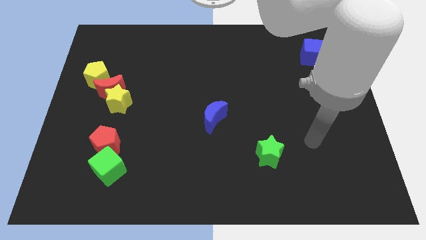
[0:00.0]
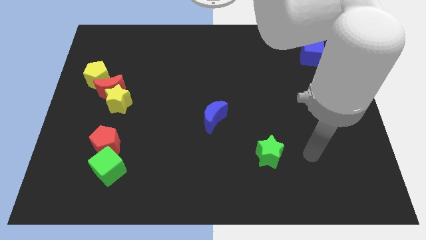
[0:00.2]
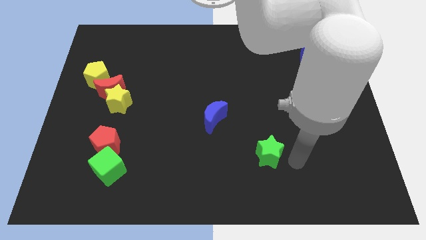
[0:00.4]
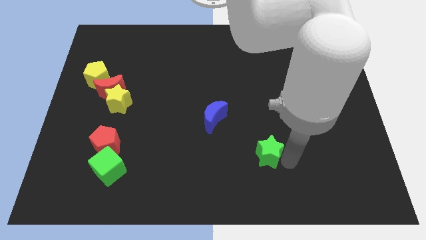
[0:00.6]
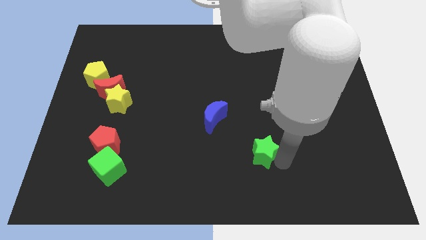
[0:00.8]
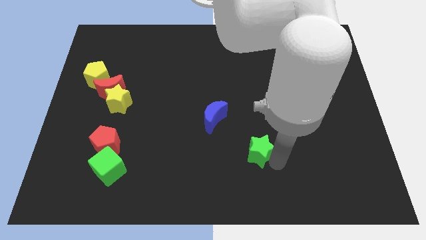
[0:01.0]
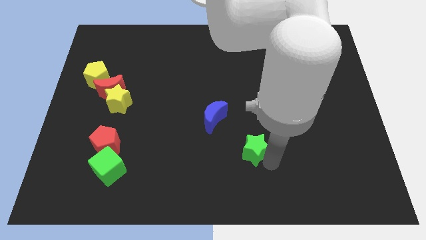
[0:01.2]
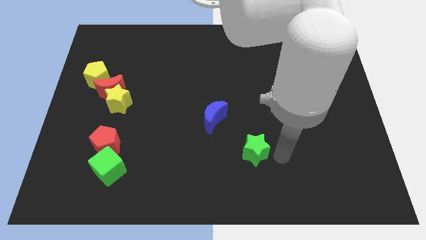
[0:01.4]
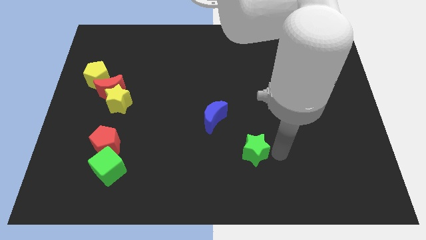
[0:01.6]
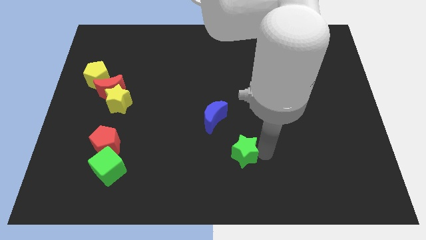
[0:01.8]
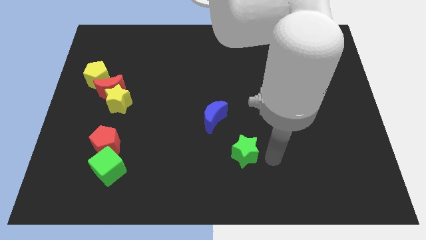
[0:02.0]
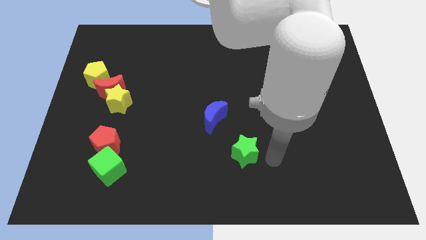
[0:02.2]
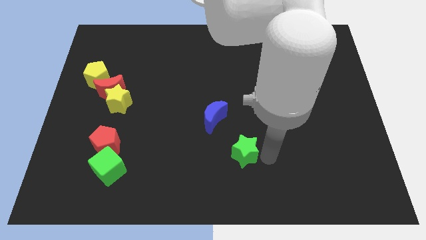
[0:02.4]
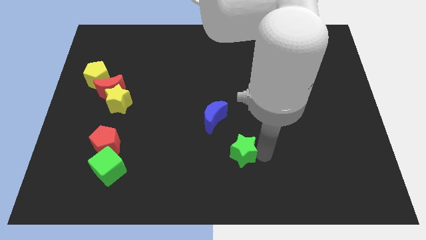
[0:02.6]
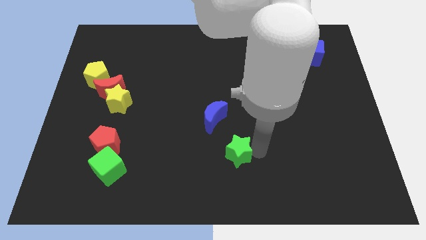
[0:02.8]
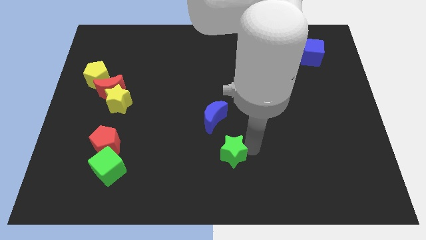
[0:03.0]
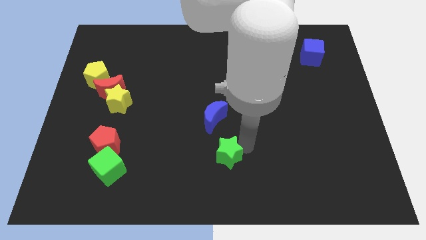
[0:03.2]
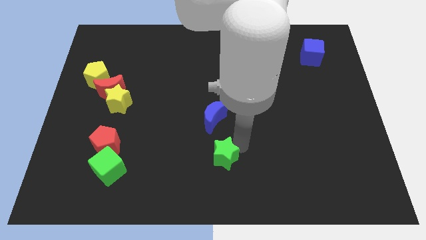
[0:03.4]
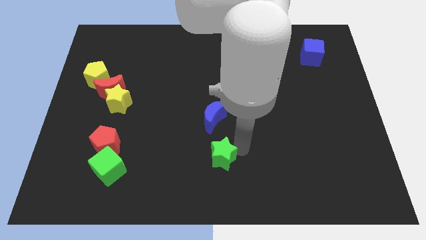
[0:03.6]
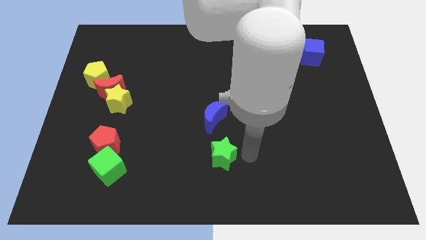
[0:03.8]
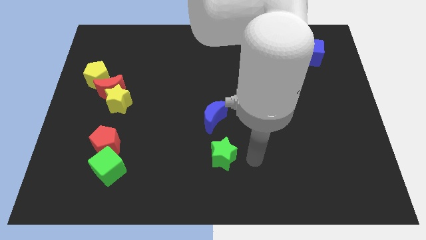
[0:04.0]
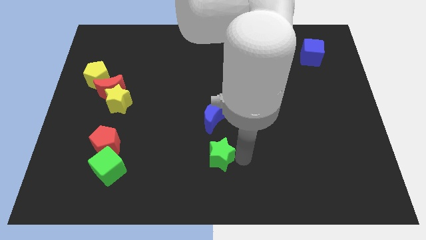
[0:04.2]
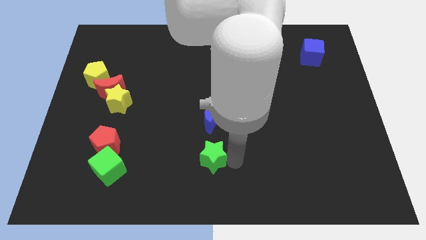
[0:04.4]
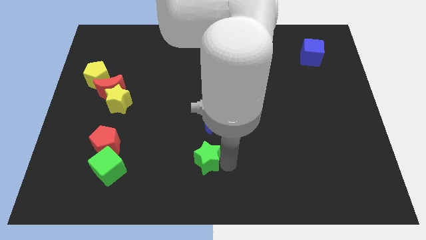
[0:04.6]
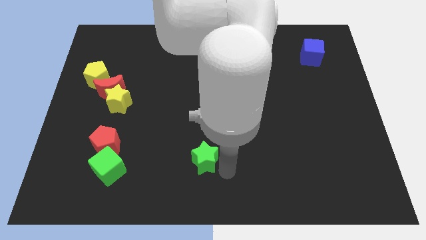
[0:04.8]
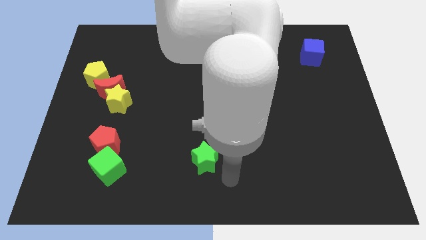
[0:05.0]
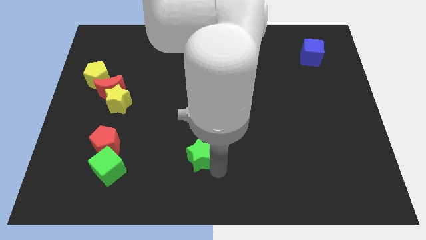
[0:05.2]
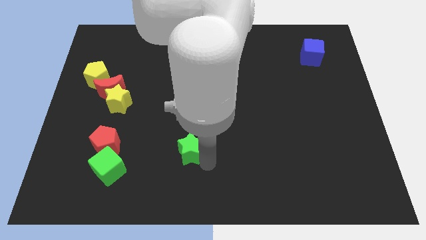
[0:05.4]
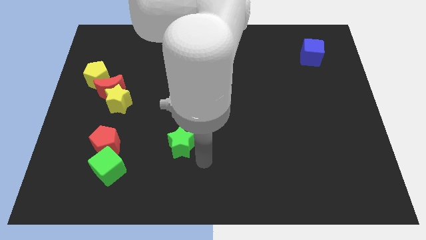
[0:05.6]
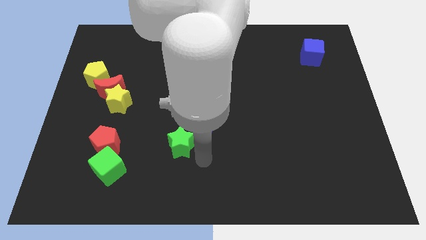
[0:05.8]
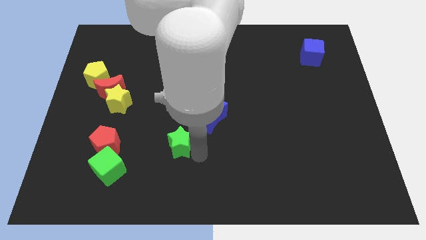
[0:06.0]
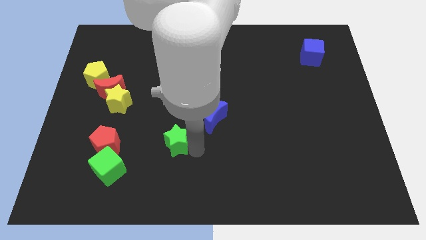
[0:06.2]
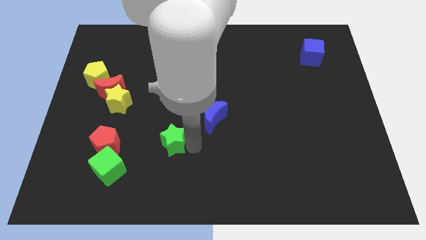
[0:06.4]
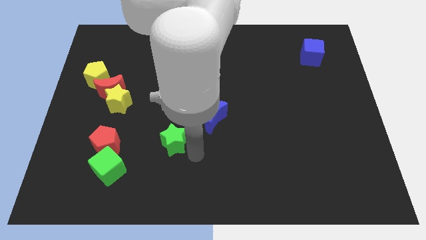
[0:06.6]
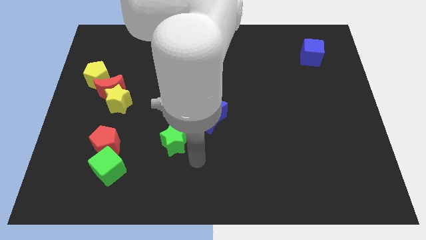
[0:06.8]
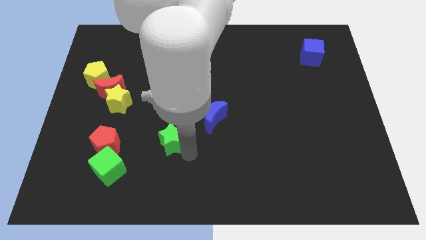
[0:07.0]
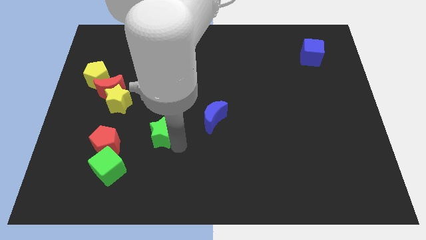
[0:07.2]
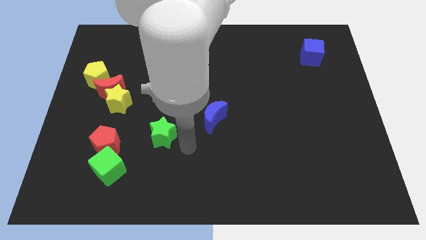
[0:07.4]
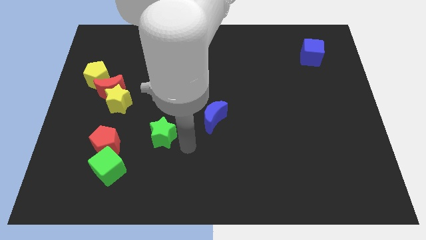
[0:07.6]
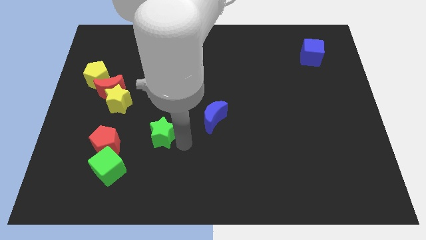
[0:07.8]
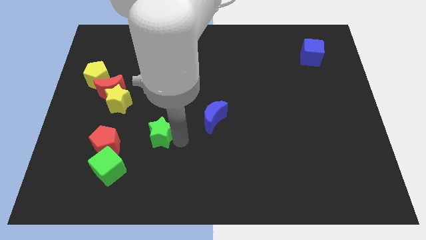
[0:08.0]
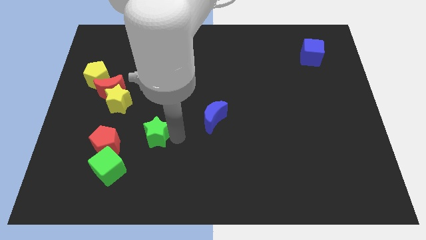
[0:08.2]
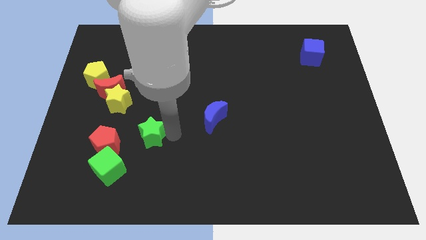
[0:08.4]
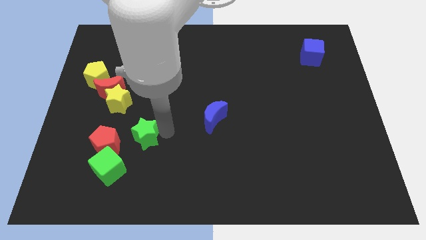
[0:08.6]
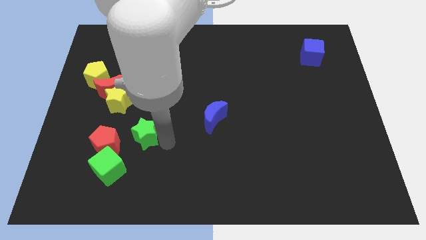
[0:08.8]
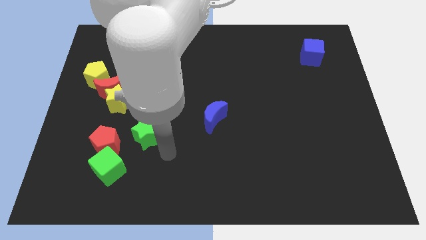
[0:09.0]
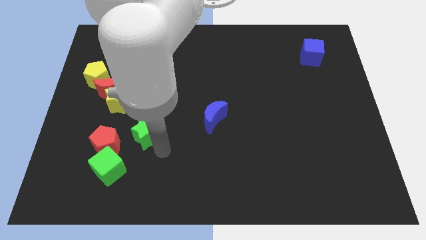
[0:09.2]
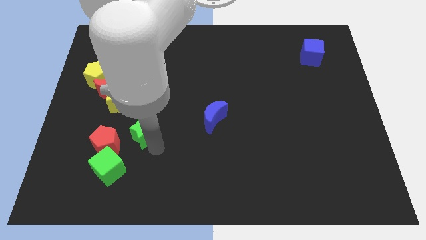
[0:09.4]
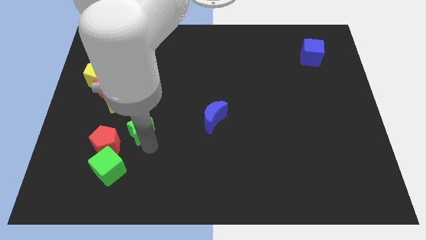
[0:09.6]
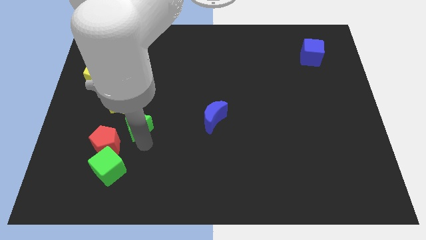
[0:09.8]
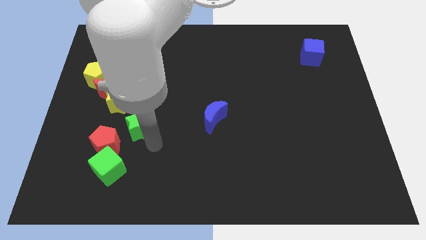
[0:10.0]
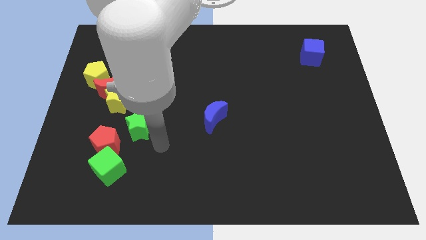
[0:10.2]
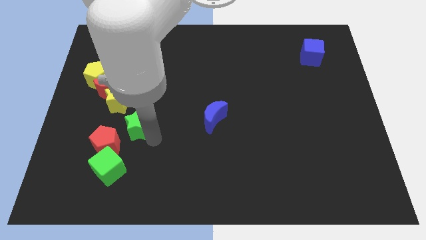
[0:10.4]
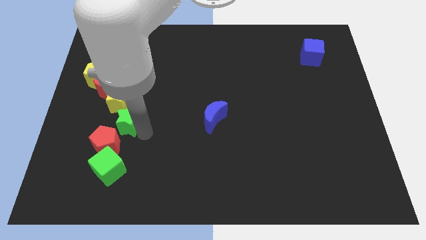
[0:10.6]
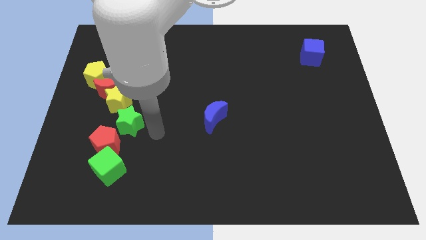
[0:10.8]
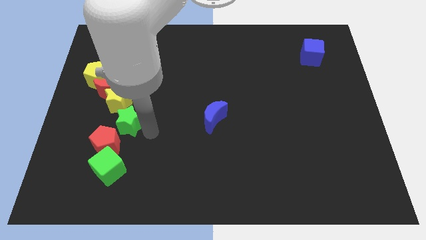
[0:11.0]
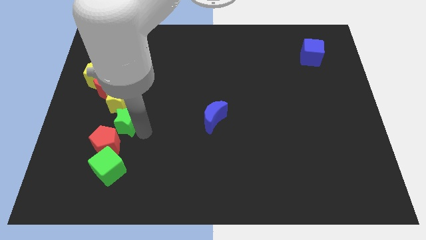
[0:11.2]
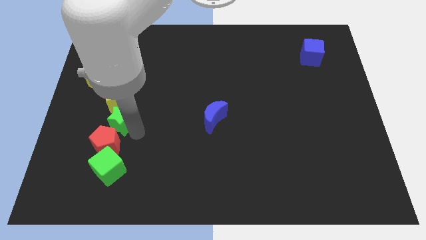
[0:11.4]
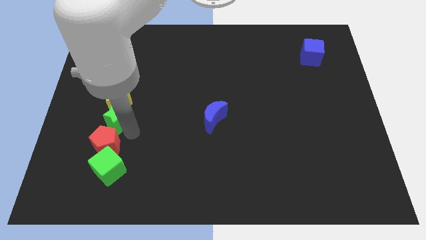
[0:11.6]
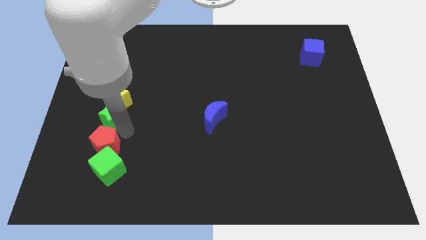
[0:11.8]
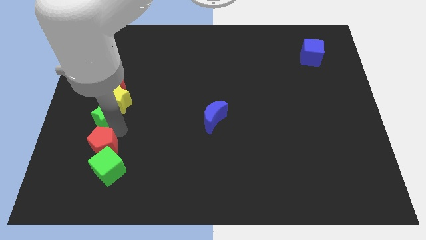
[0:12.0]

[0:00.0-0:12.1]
slide the green star below the yellow pentagon
